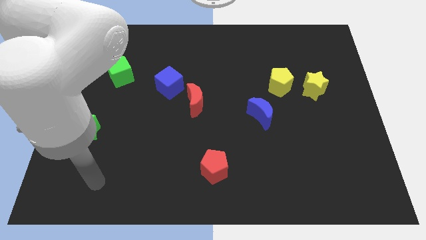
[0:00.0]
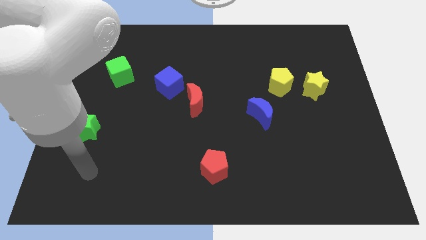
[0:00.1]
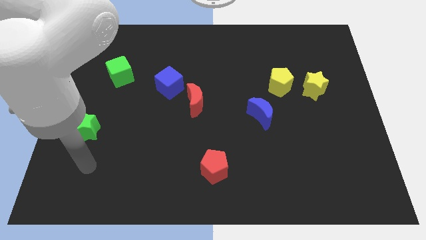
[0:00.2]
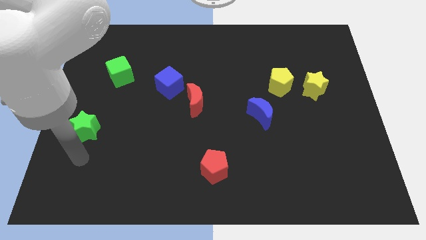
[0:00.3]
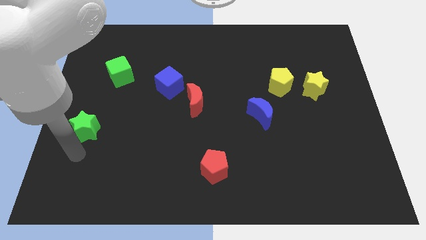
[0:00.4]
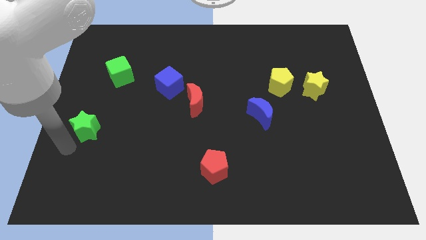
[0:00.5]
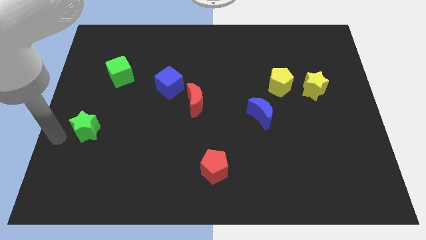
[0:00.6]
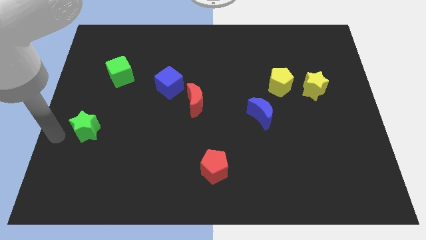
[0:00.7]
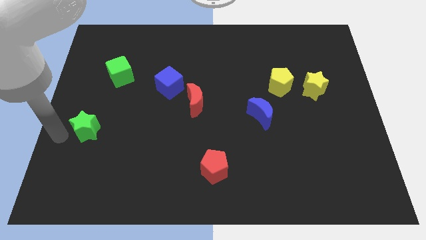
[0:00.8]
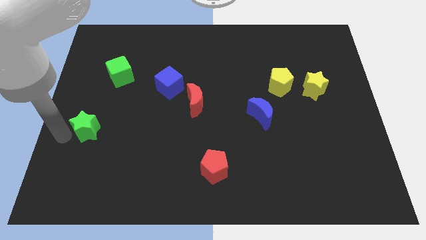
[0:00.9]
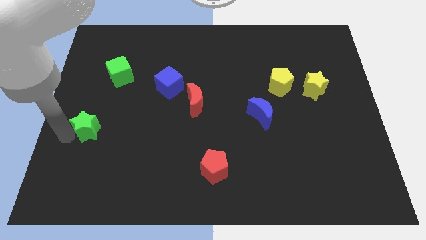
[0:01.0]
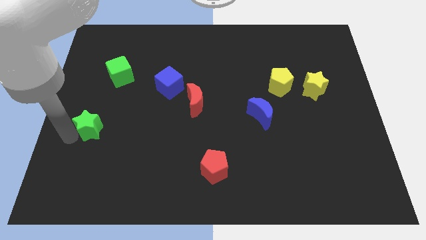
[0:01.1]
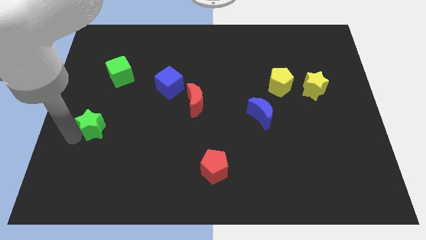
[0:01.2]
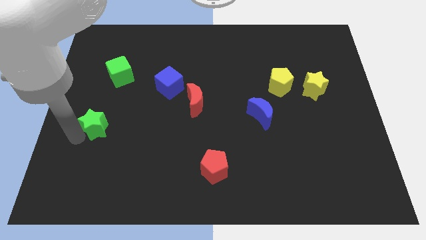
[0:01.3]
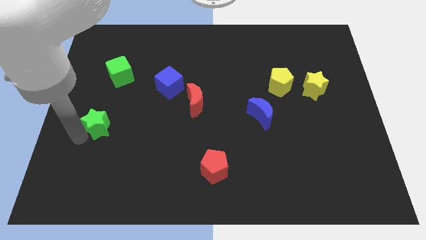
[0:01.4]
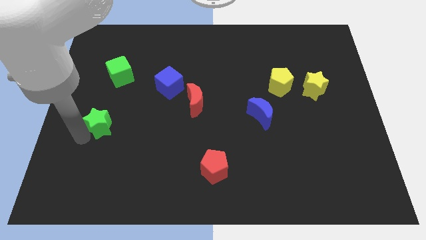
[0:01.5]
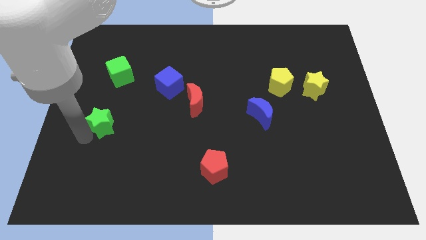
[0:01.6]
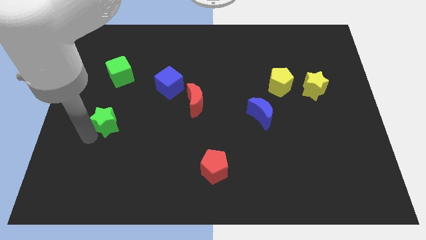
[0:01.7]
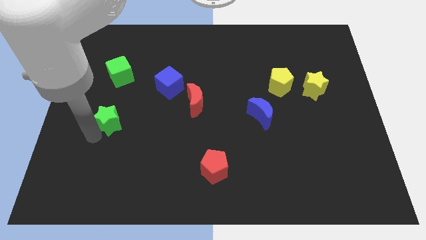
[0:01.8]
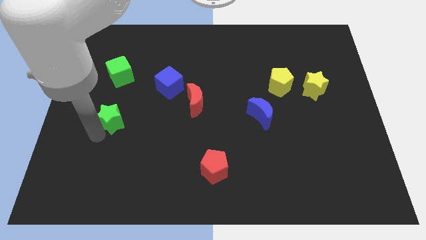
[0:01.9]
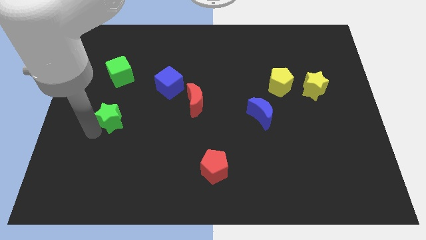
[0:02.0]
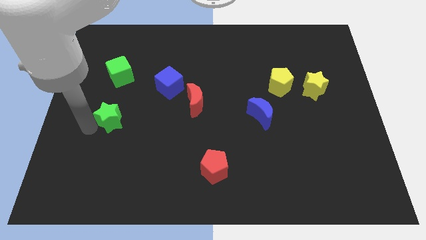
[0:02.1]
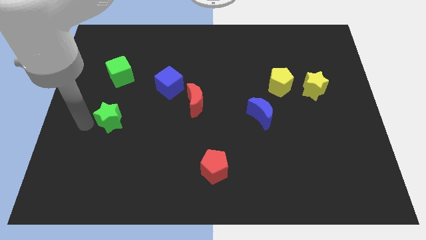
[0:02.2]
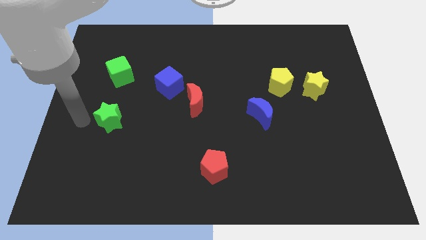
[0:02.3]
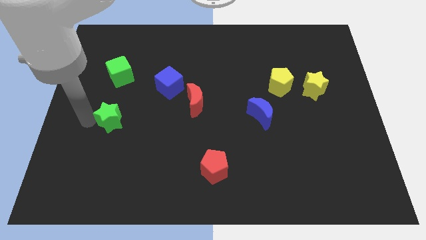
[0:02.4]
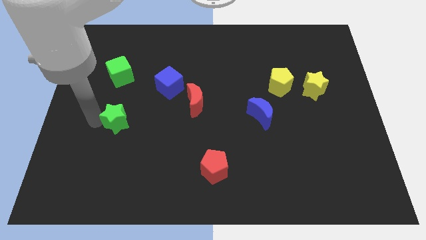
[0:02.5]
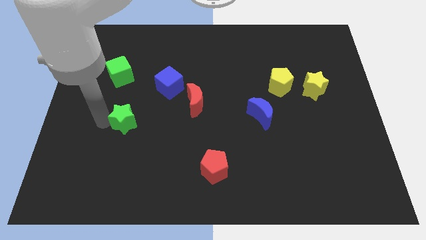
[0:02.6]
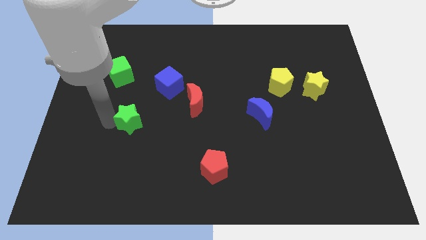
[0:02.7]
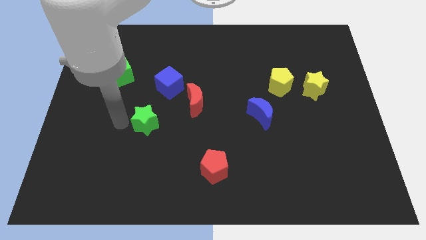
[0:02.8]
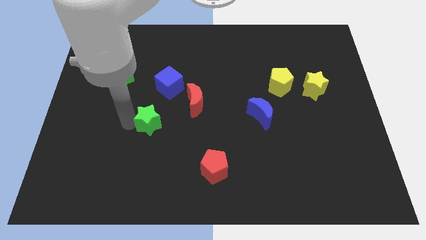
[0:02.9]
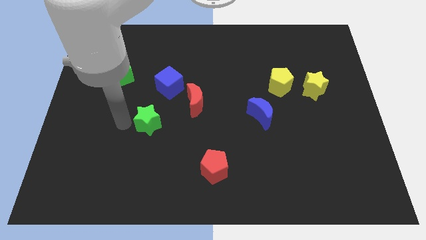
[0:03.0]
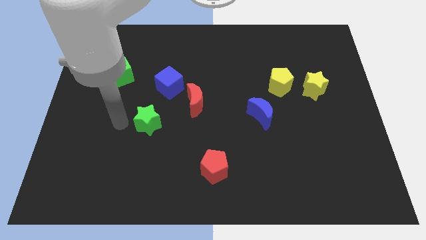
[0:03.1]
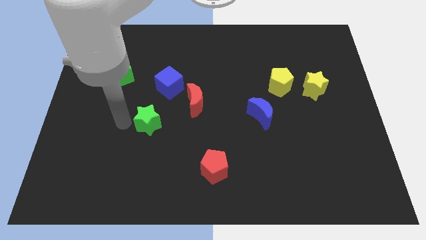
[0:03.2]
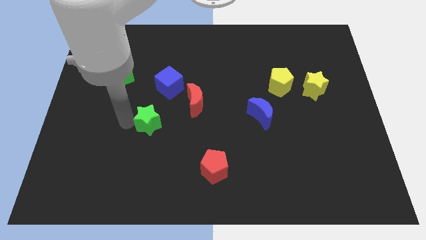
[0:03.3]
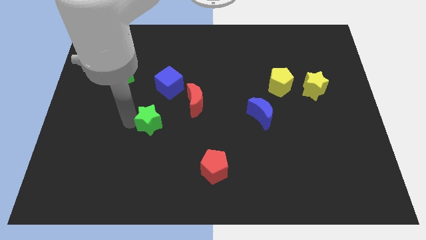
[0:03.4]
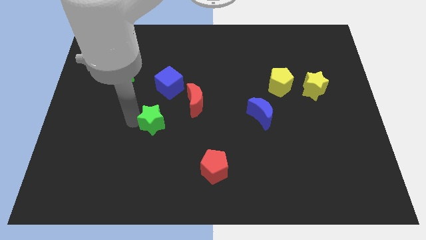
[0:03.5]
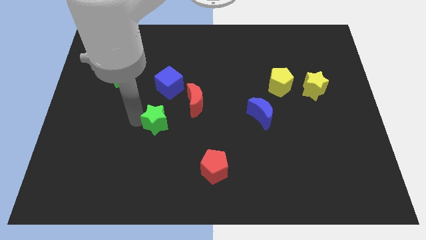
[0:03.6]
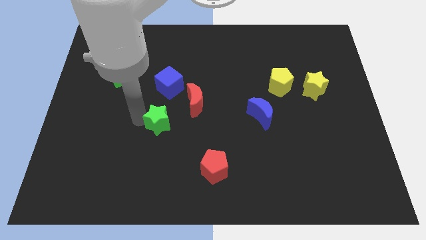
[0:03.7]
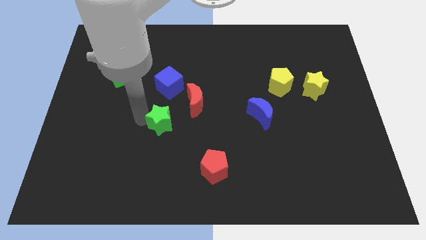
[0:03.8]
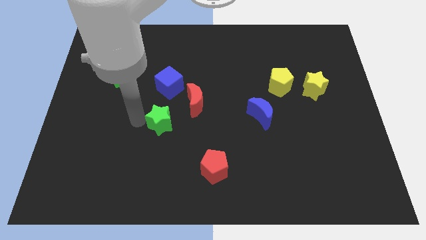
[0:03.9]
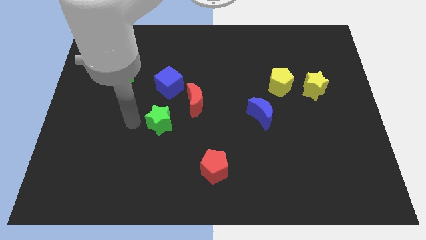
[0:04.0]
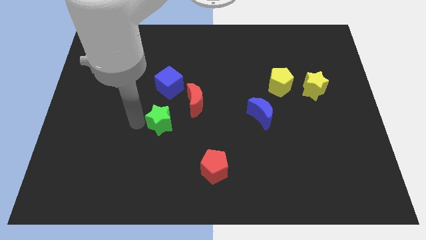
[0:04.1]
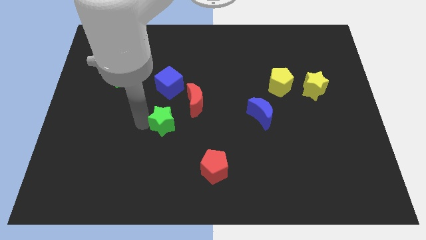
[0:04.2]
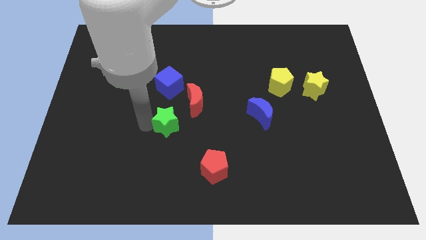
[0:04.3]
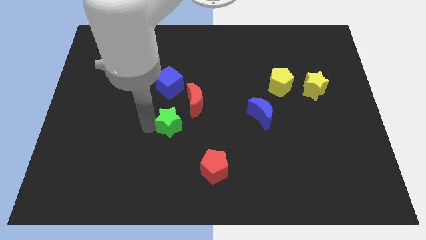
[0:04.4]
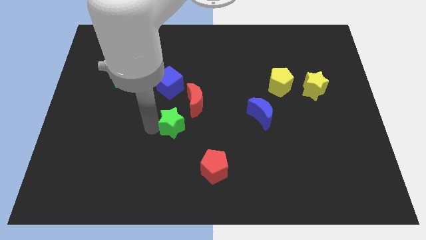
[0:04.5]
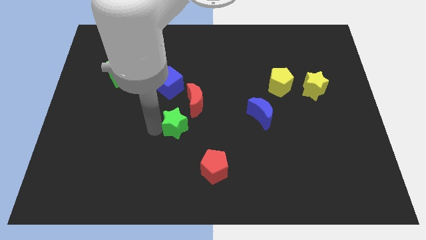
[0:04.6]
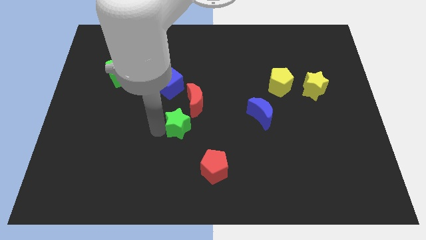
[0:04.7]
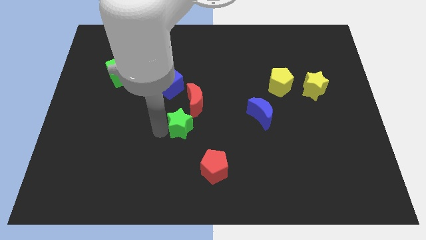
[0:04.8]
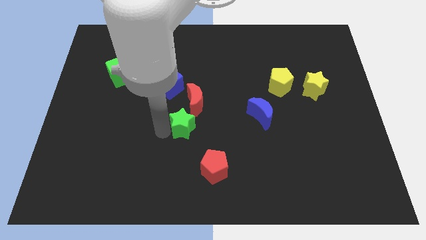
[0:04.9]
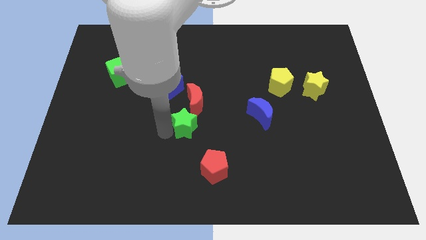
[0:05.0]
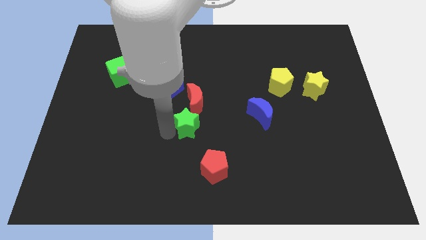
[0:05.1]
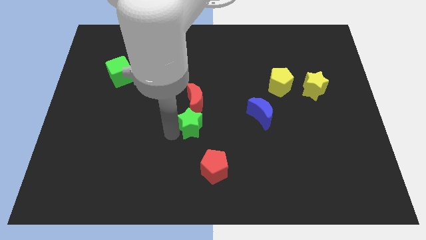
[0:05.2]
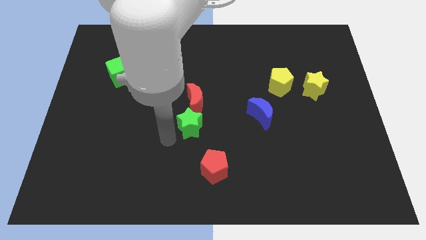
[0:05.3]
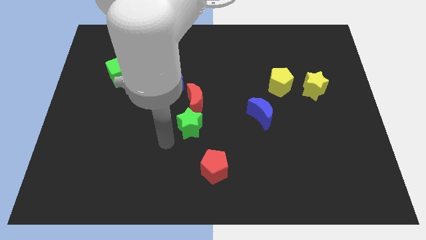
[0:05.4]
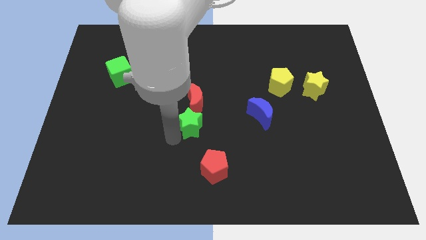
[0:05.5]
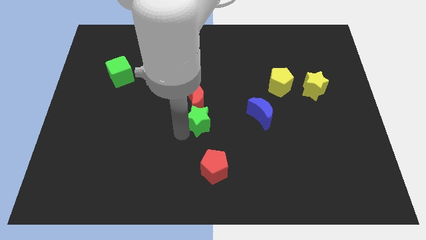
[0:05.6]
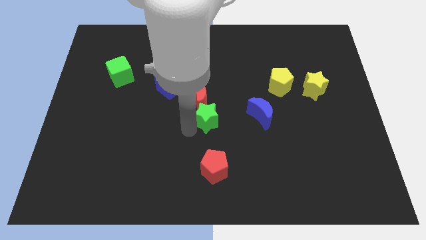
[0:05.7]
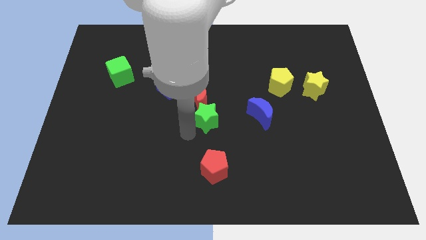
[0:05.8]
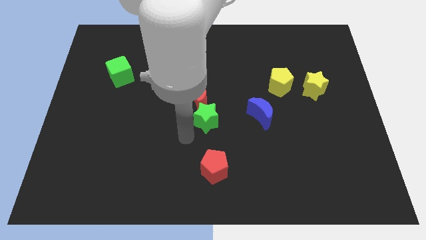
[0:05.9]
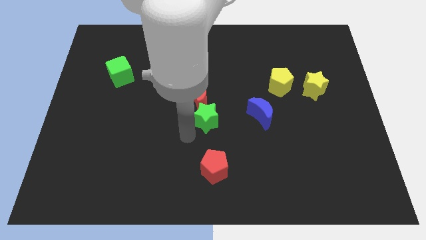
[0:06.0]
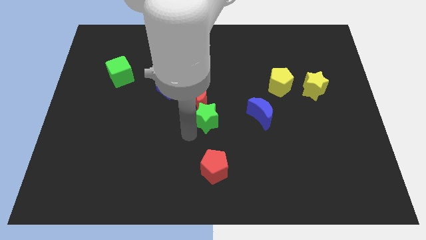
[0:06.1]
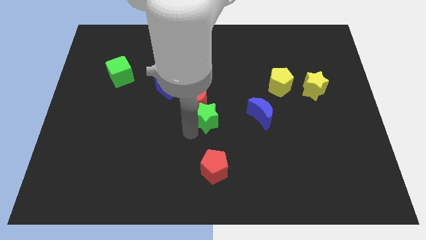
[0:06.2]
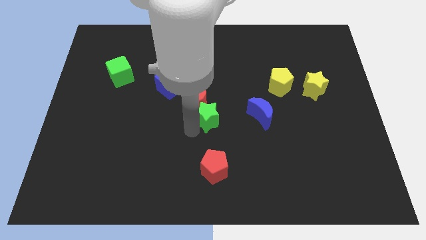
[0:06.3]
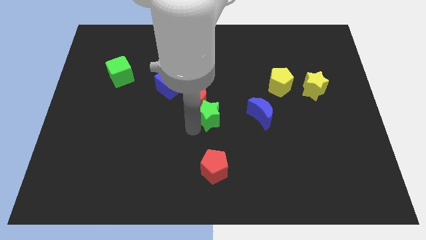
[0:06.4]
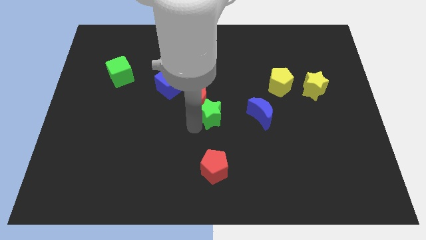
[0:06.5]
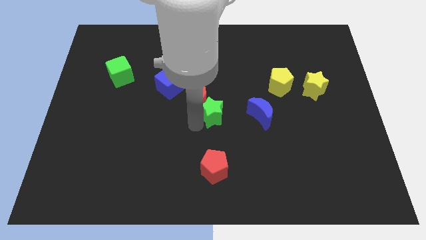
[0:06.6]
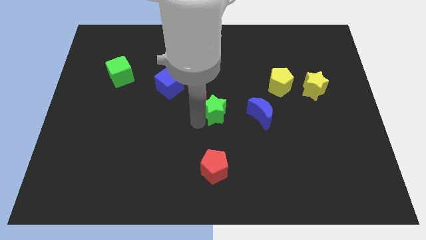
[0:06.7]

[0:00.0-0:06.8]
move the green star to the right of the red moon

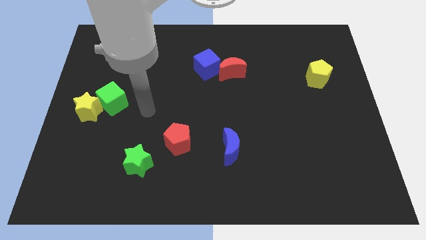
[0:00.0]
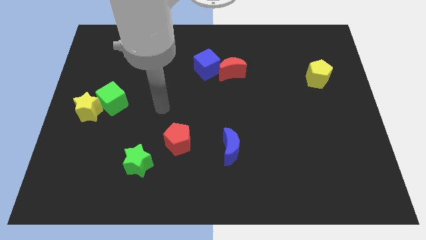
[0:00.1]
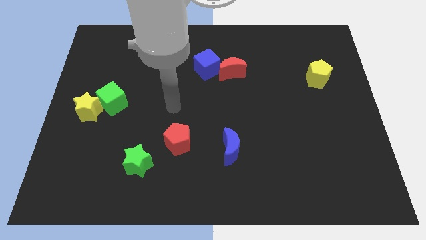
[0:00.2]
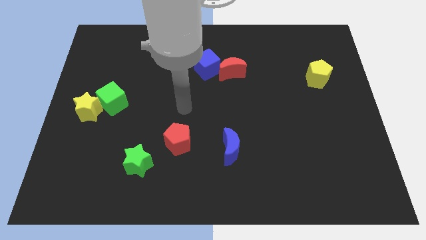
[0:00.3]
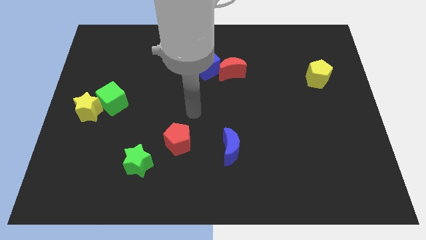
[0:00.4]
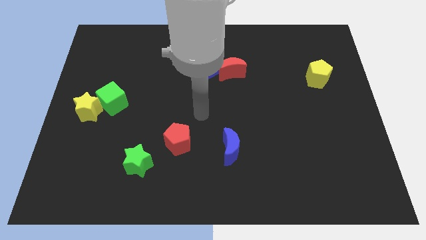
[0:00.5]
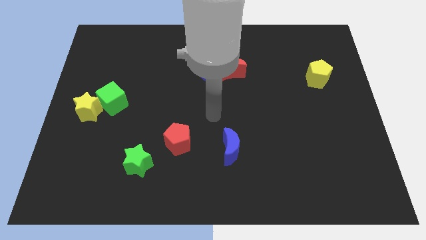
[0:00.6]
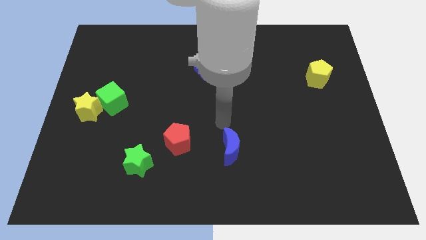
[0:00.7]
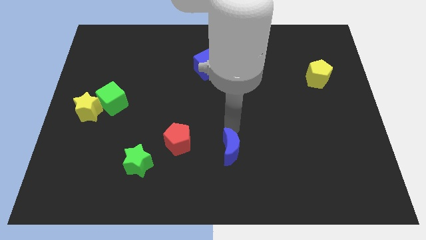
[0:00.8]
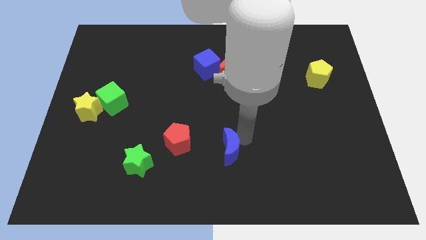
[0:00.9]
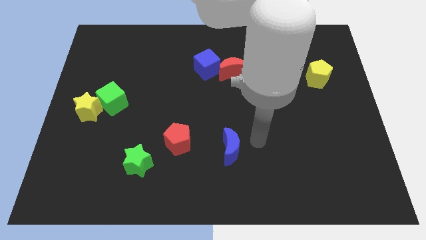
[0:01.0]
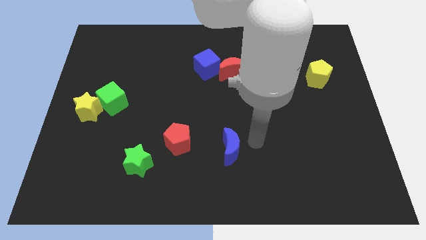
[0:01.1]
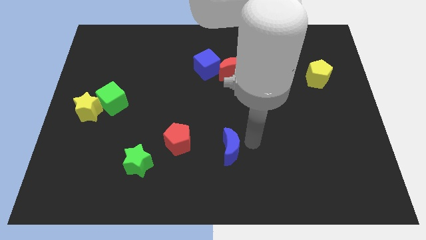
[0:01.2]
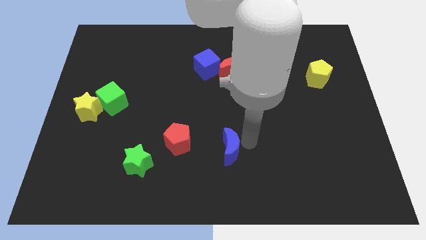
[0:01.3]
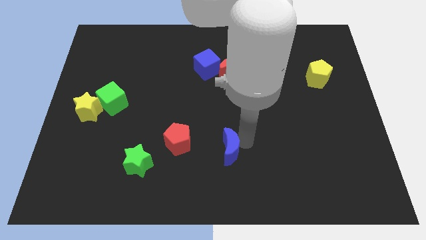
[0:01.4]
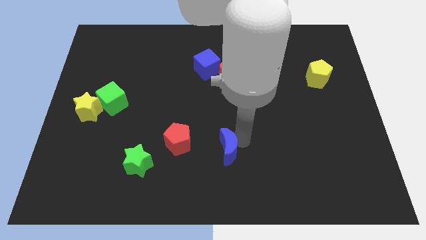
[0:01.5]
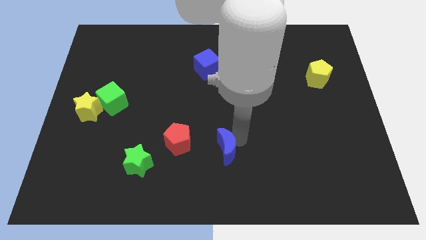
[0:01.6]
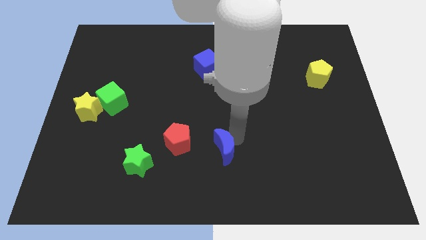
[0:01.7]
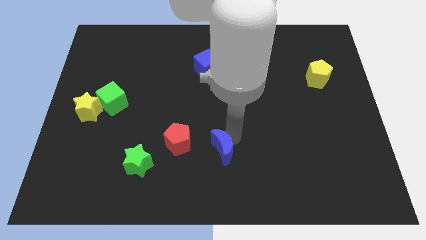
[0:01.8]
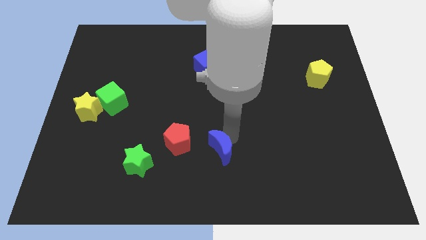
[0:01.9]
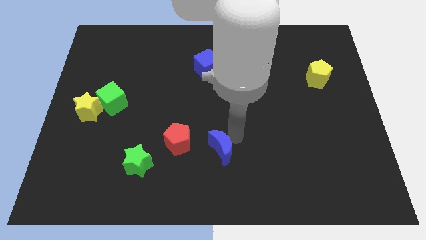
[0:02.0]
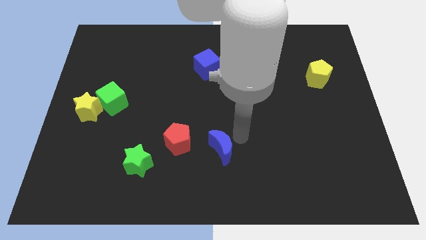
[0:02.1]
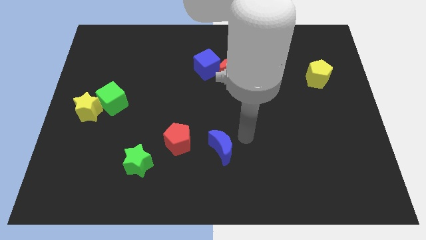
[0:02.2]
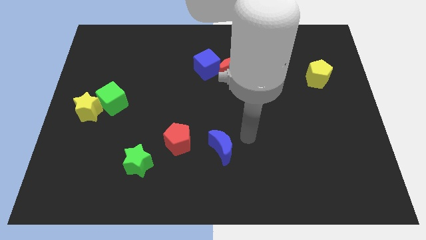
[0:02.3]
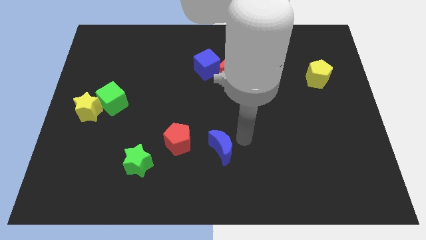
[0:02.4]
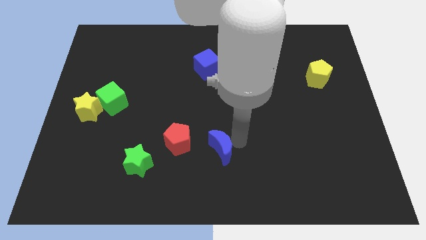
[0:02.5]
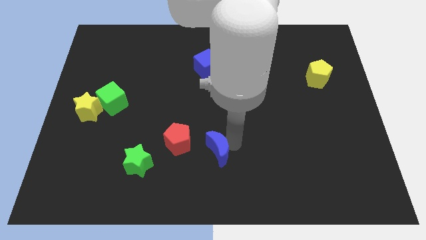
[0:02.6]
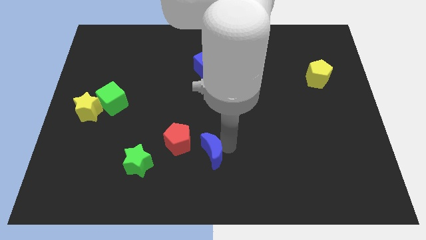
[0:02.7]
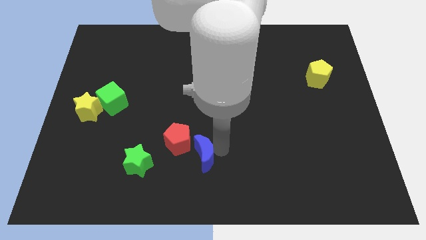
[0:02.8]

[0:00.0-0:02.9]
push the blue moon to the right of the green star
